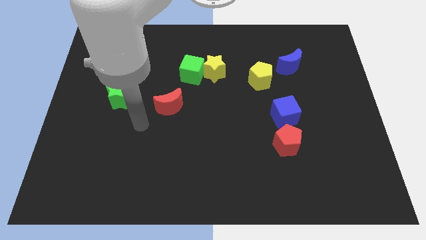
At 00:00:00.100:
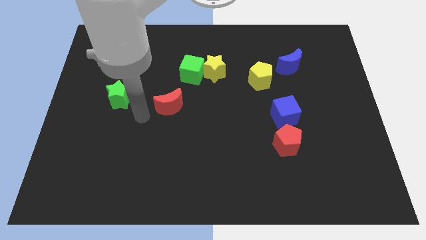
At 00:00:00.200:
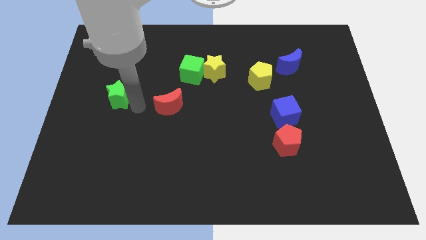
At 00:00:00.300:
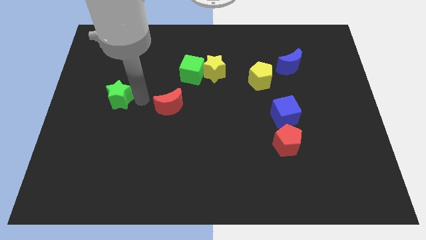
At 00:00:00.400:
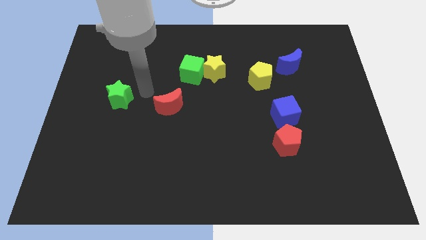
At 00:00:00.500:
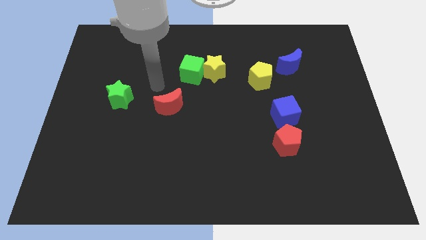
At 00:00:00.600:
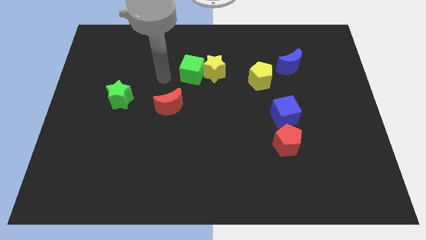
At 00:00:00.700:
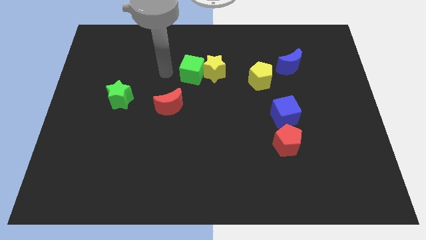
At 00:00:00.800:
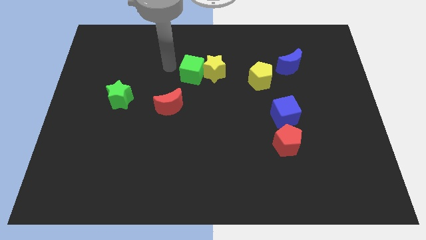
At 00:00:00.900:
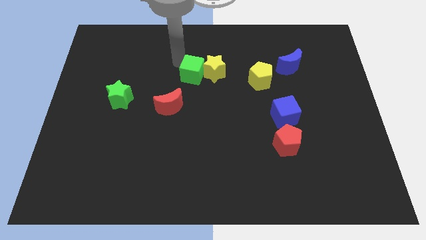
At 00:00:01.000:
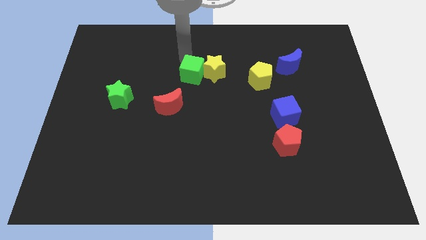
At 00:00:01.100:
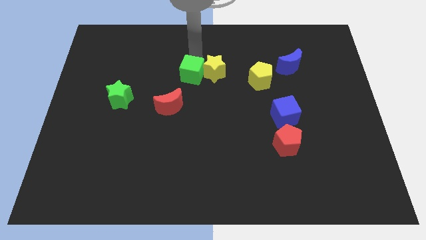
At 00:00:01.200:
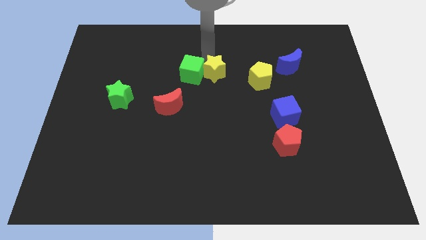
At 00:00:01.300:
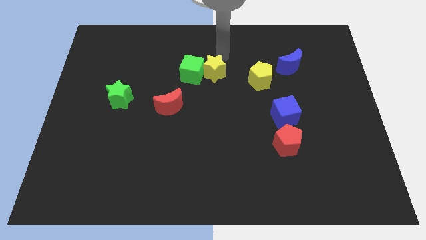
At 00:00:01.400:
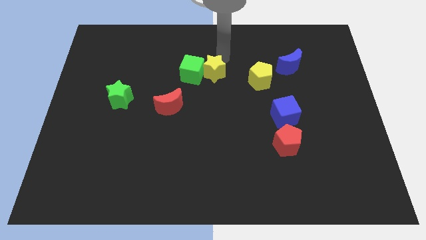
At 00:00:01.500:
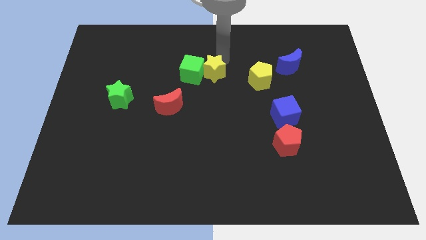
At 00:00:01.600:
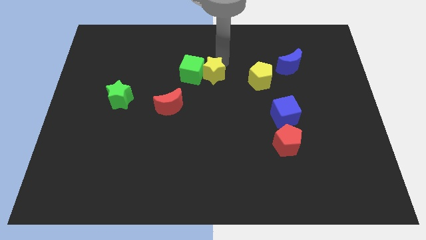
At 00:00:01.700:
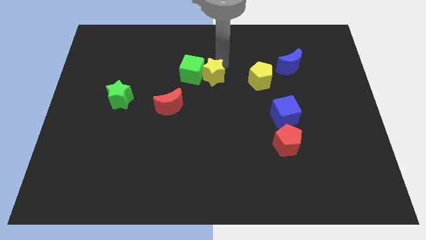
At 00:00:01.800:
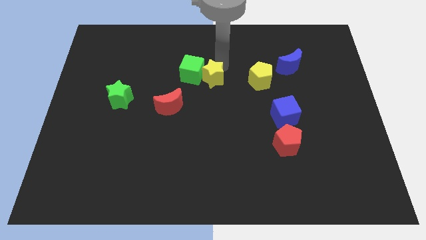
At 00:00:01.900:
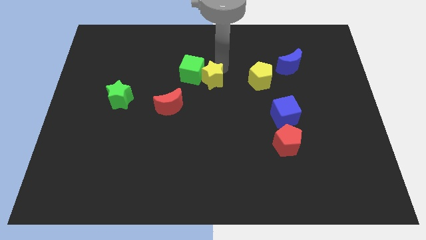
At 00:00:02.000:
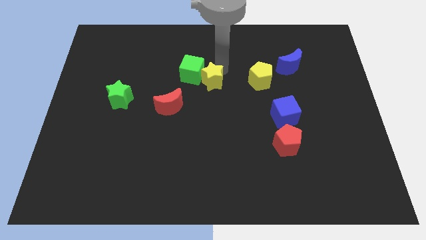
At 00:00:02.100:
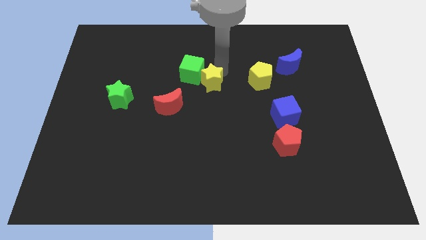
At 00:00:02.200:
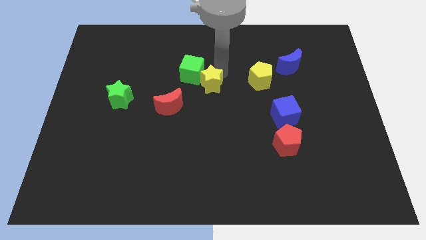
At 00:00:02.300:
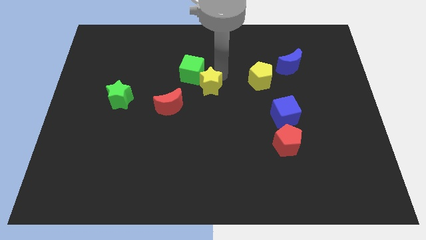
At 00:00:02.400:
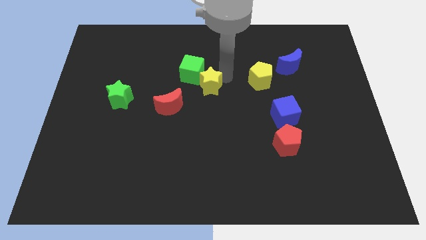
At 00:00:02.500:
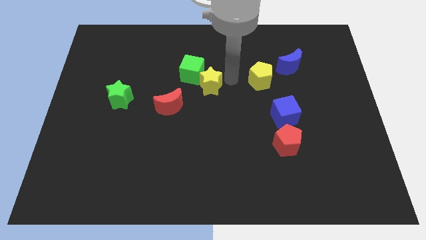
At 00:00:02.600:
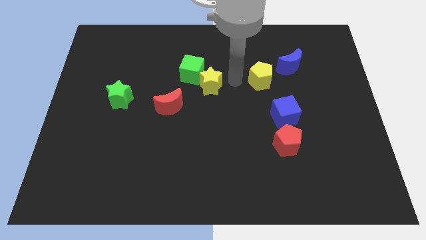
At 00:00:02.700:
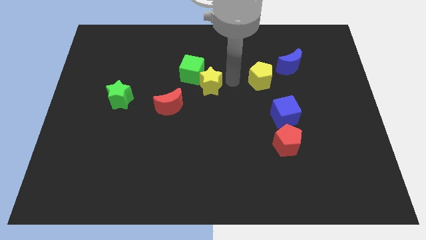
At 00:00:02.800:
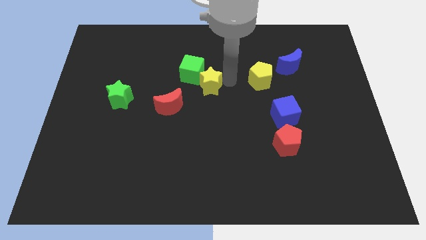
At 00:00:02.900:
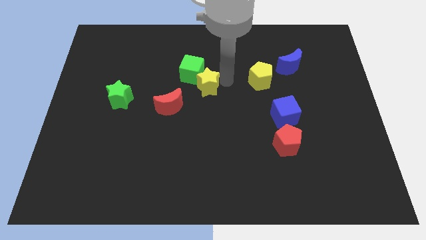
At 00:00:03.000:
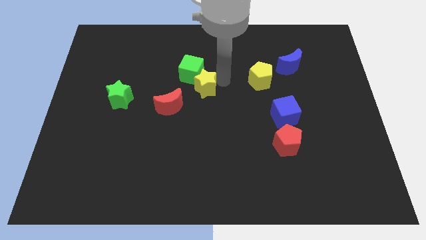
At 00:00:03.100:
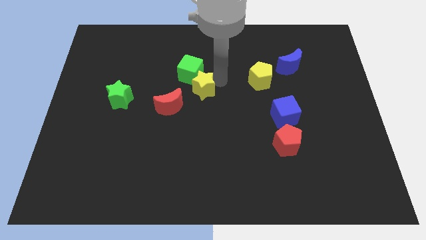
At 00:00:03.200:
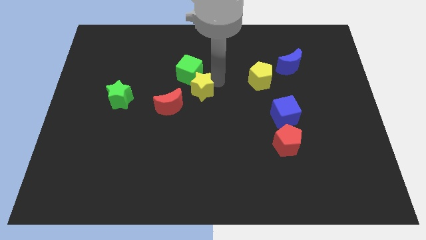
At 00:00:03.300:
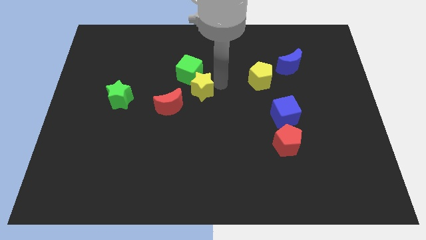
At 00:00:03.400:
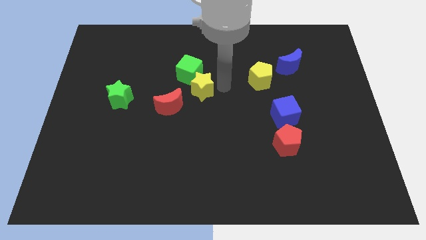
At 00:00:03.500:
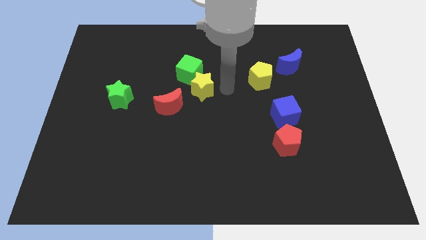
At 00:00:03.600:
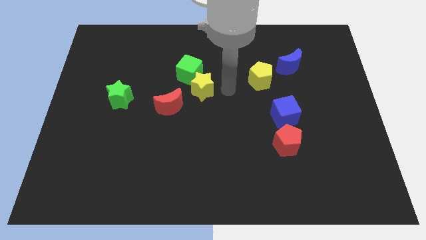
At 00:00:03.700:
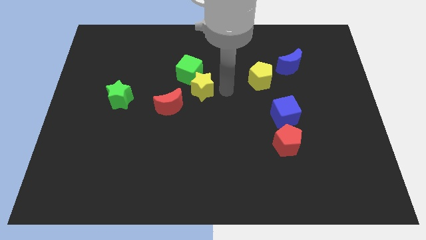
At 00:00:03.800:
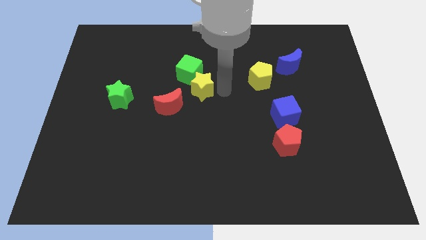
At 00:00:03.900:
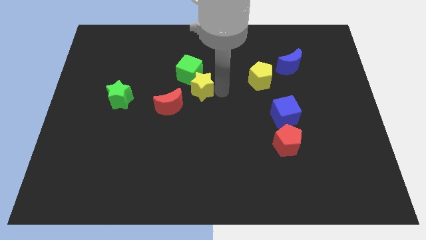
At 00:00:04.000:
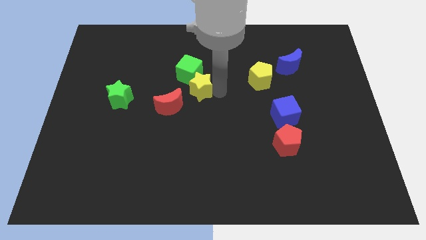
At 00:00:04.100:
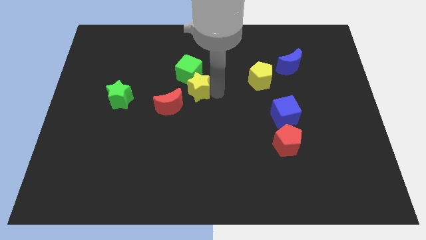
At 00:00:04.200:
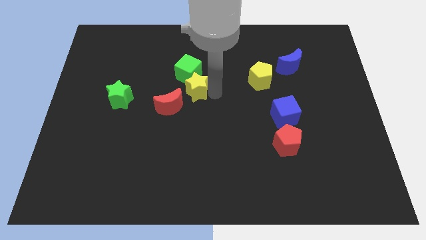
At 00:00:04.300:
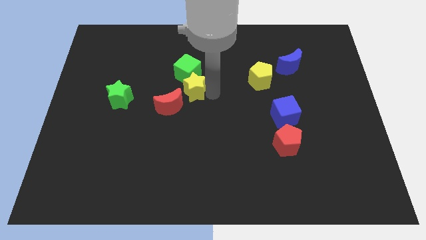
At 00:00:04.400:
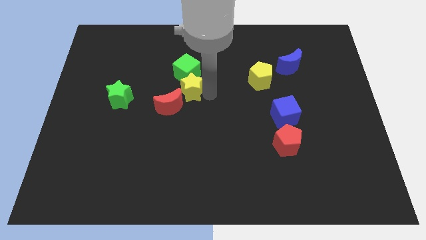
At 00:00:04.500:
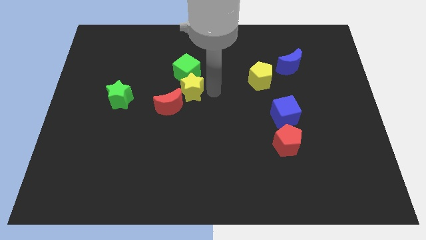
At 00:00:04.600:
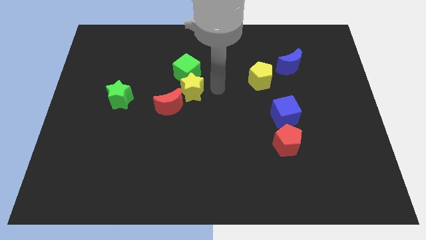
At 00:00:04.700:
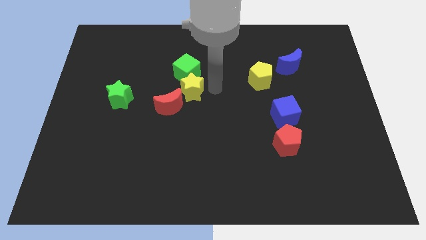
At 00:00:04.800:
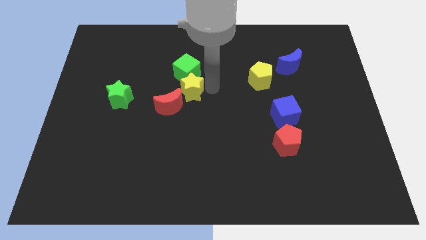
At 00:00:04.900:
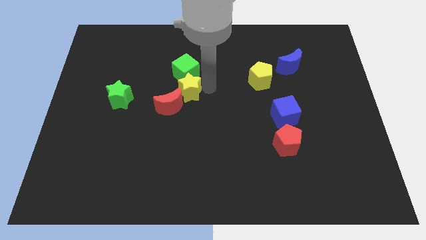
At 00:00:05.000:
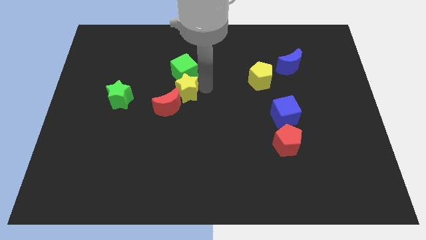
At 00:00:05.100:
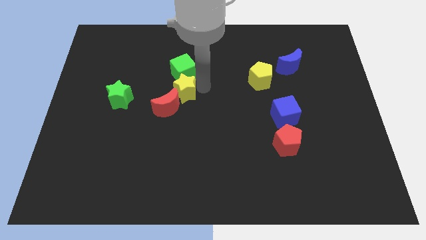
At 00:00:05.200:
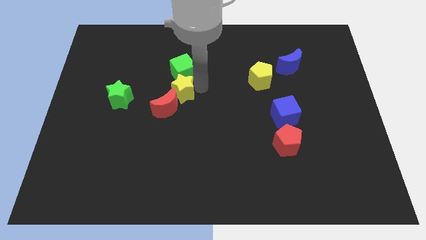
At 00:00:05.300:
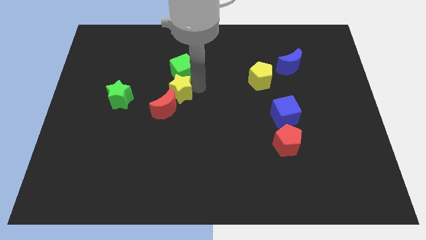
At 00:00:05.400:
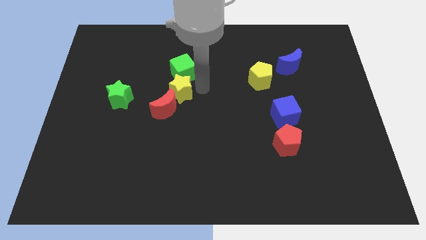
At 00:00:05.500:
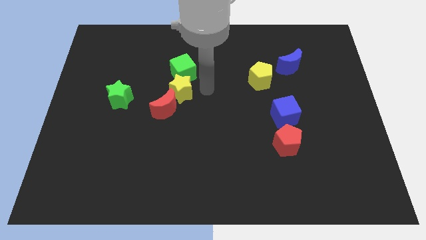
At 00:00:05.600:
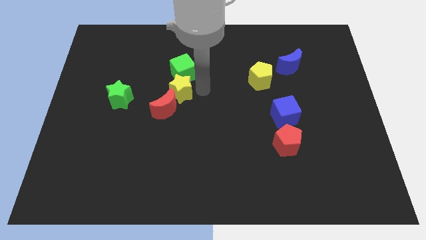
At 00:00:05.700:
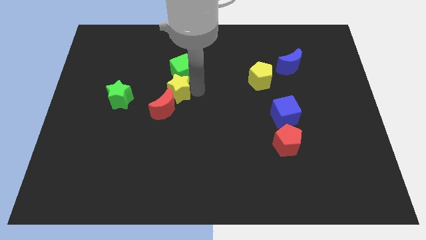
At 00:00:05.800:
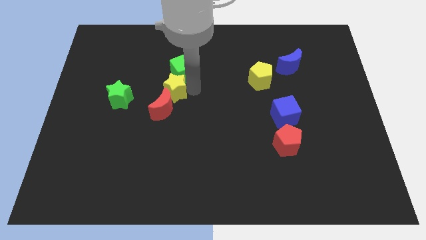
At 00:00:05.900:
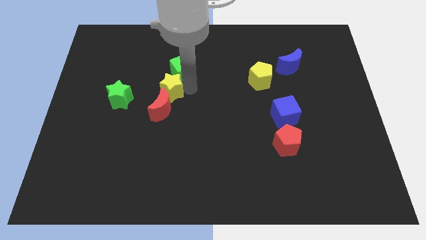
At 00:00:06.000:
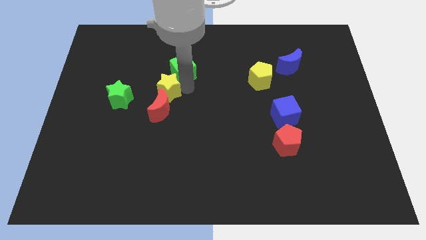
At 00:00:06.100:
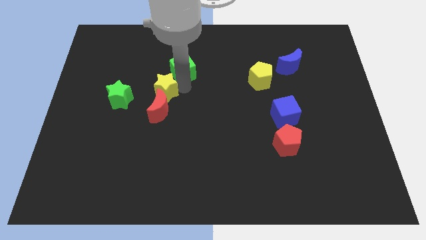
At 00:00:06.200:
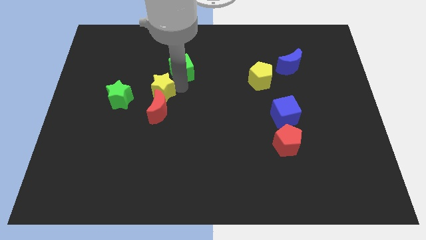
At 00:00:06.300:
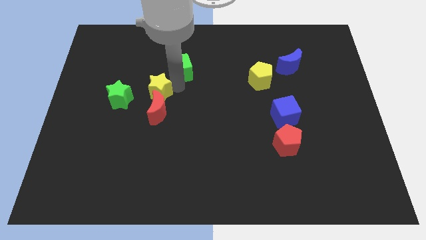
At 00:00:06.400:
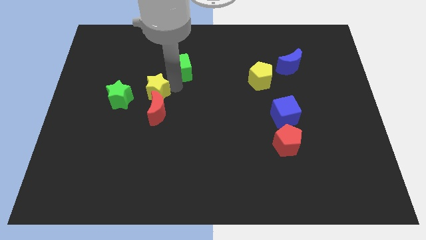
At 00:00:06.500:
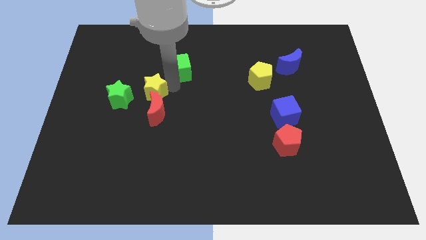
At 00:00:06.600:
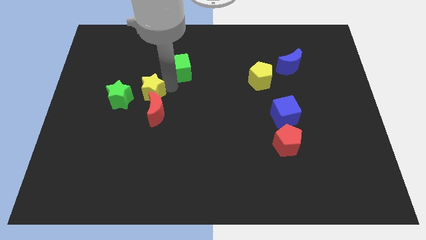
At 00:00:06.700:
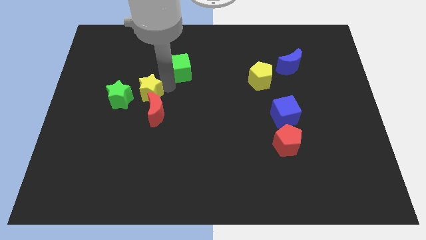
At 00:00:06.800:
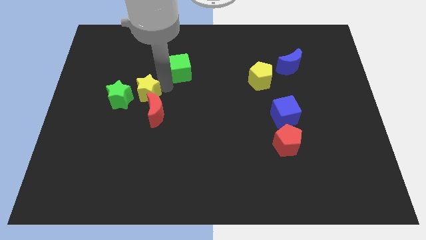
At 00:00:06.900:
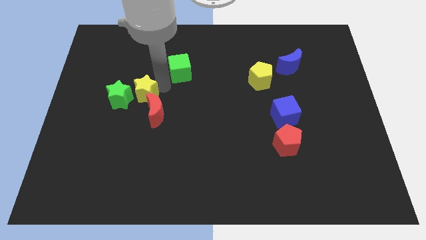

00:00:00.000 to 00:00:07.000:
push the yellow star diagonally down and to the right of the green star

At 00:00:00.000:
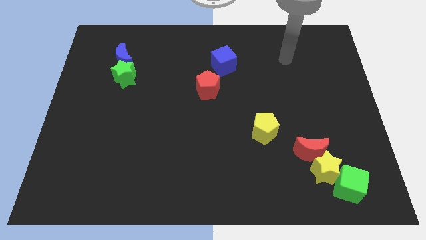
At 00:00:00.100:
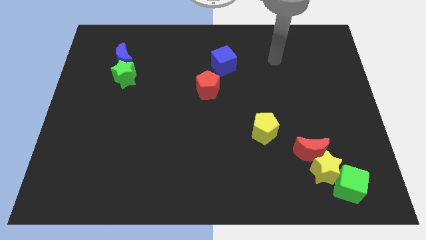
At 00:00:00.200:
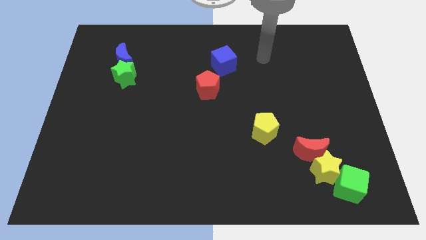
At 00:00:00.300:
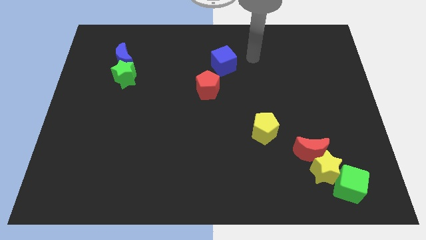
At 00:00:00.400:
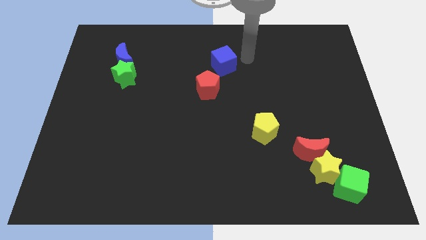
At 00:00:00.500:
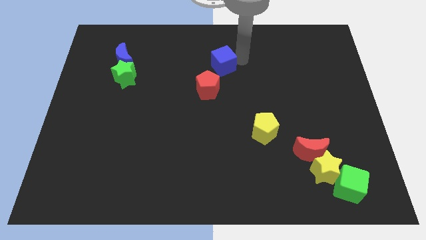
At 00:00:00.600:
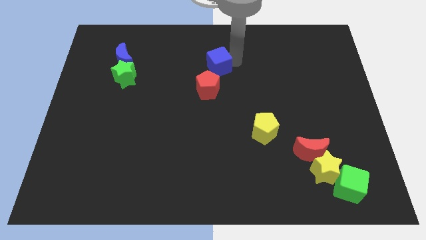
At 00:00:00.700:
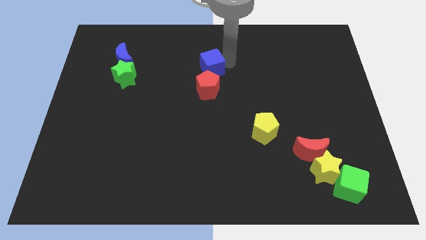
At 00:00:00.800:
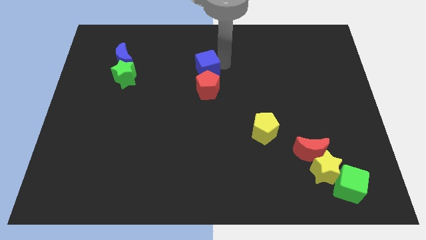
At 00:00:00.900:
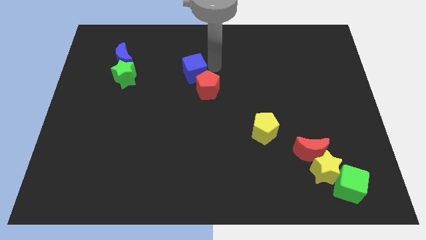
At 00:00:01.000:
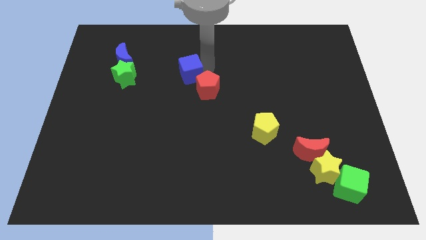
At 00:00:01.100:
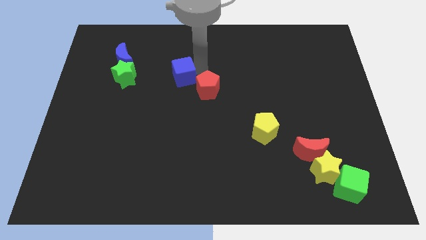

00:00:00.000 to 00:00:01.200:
put the blue cube right of the green star
